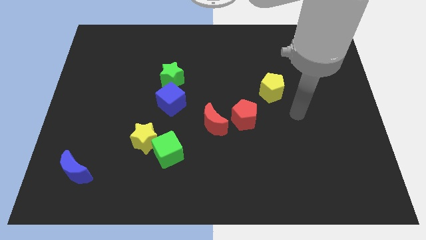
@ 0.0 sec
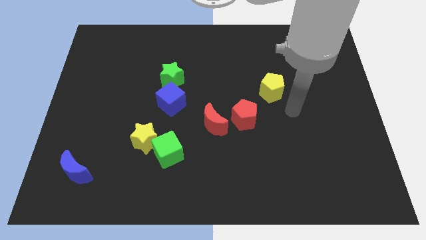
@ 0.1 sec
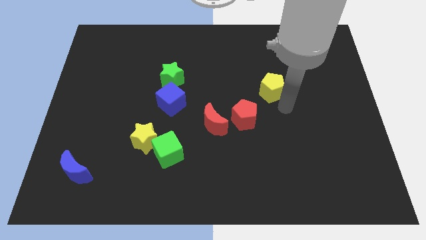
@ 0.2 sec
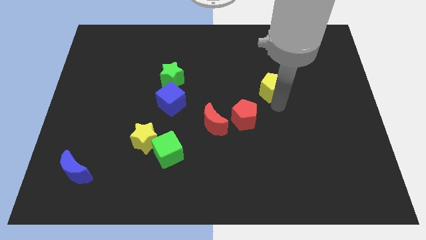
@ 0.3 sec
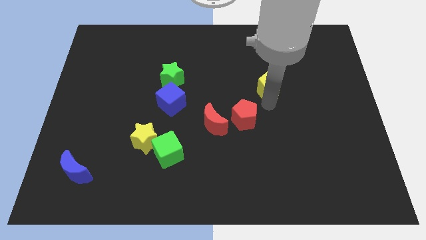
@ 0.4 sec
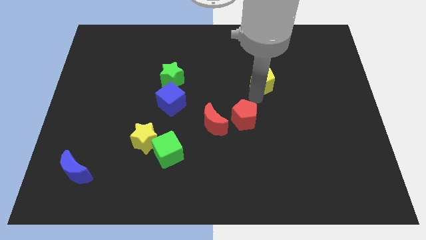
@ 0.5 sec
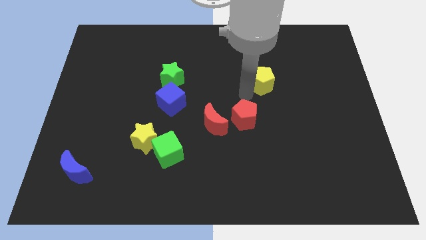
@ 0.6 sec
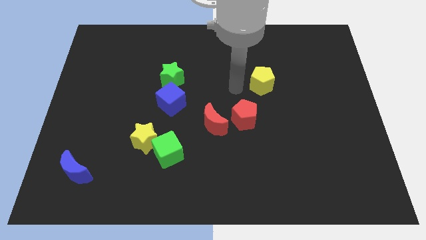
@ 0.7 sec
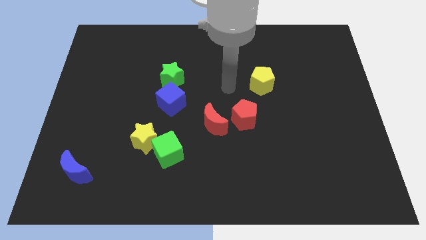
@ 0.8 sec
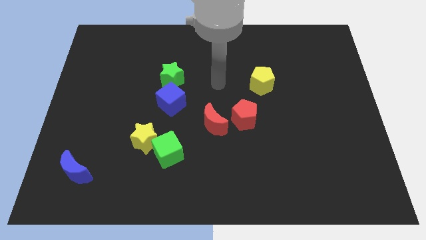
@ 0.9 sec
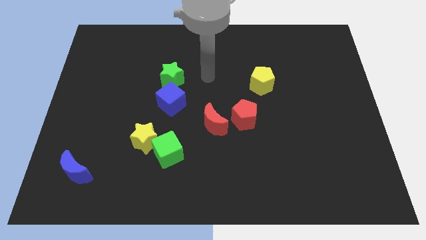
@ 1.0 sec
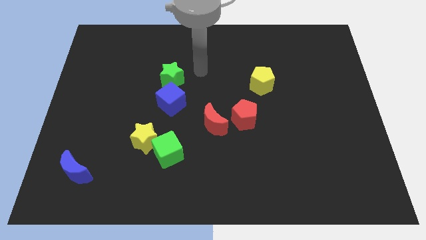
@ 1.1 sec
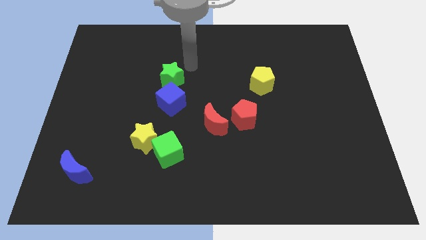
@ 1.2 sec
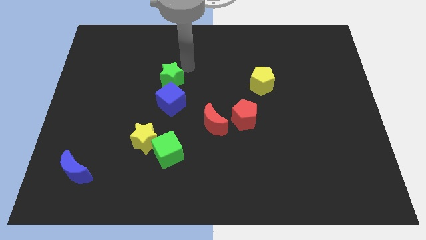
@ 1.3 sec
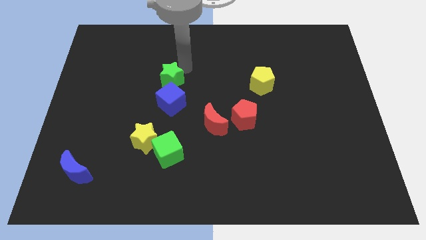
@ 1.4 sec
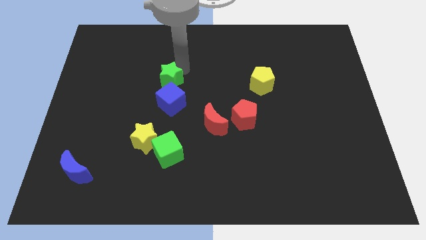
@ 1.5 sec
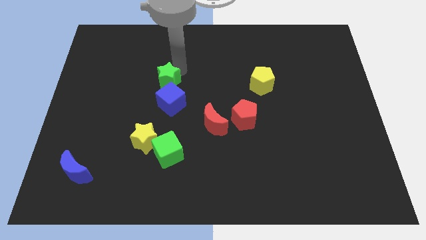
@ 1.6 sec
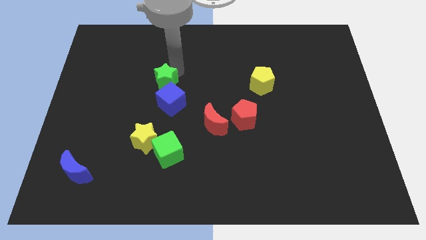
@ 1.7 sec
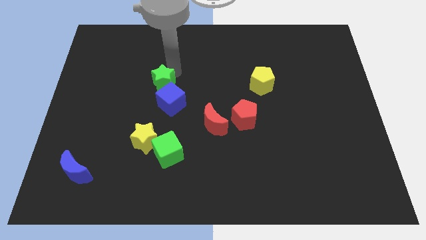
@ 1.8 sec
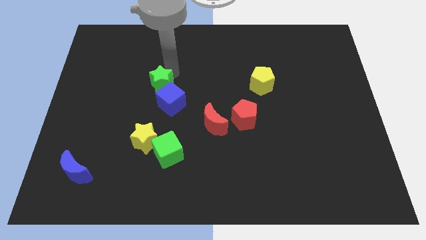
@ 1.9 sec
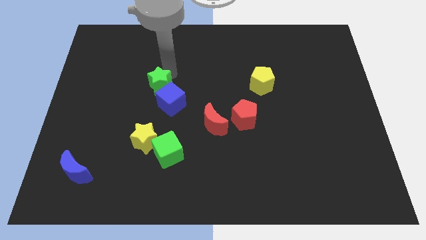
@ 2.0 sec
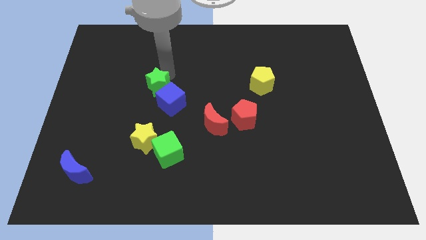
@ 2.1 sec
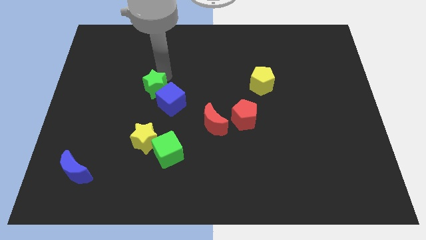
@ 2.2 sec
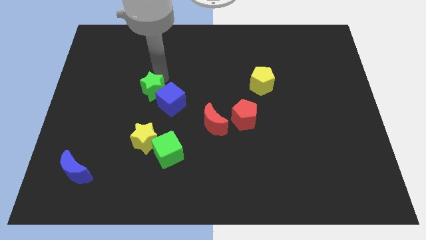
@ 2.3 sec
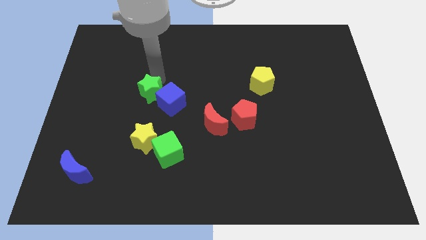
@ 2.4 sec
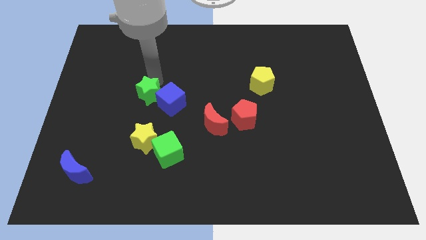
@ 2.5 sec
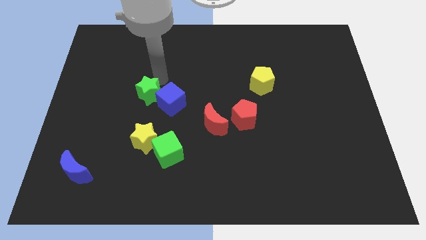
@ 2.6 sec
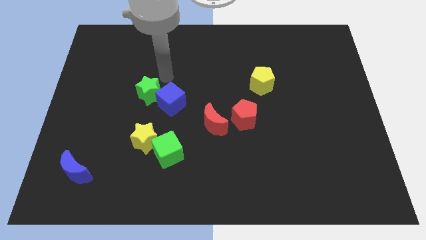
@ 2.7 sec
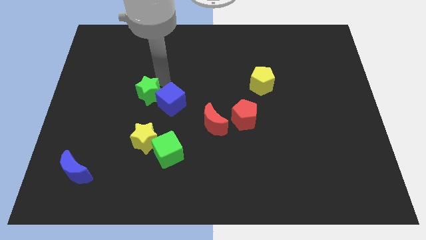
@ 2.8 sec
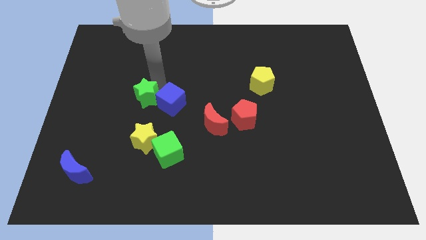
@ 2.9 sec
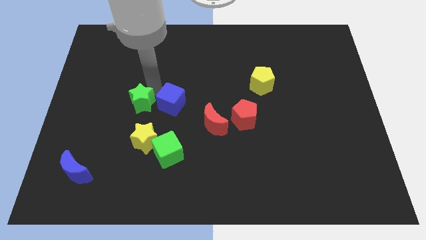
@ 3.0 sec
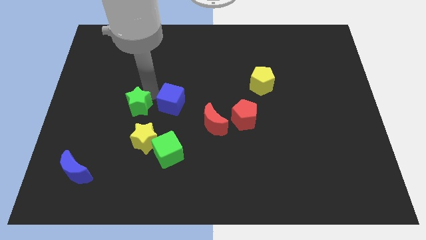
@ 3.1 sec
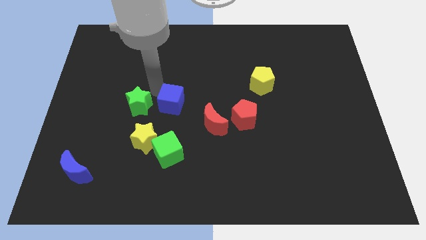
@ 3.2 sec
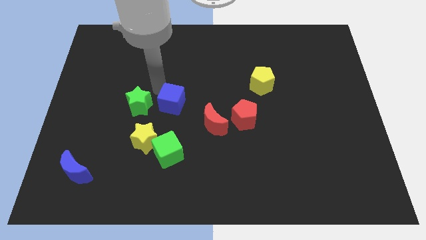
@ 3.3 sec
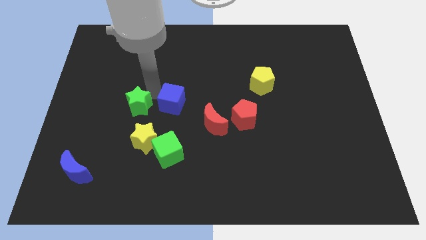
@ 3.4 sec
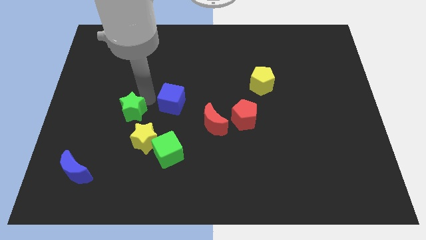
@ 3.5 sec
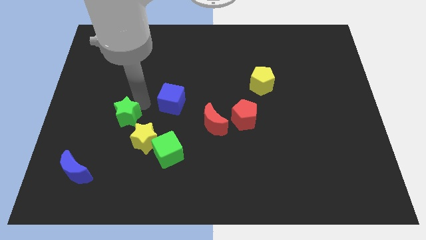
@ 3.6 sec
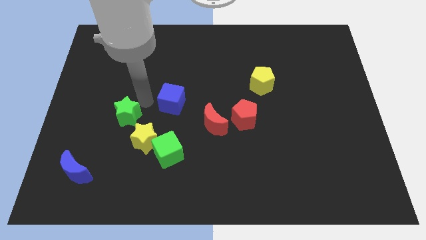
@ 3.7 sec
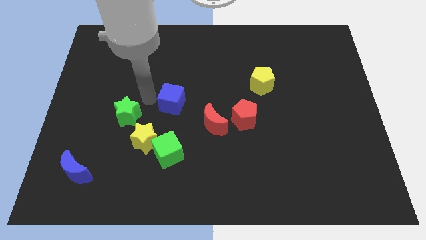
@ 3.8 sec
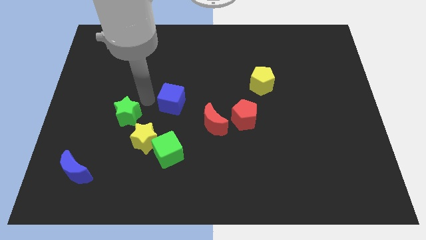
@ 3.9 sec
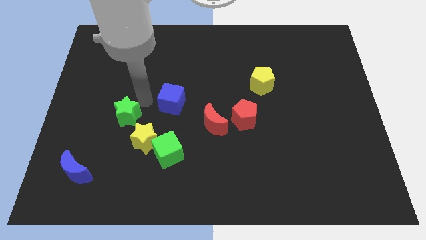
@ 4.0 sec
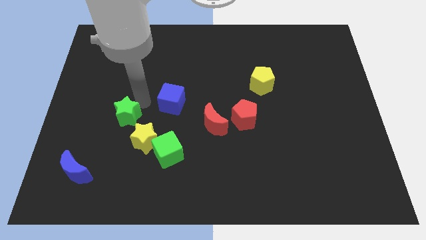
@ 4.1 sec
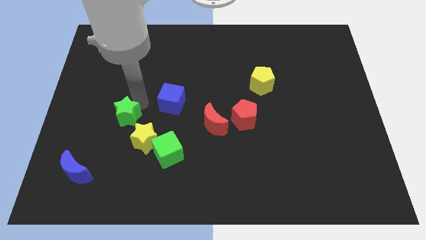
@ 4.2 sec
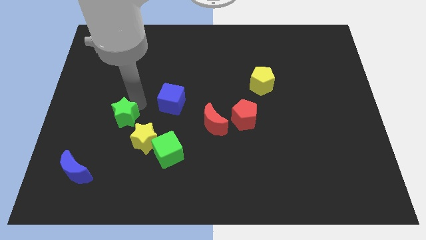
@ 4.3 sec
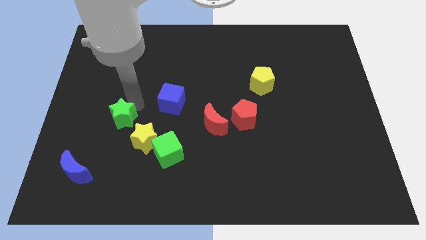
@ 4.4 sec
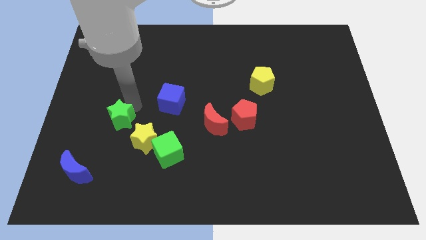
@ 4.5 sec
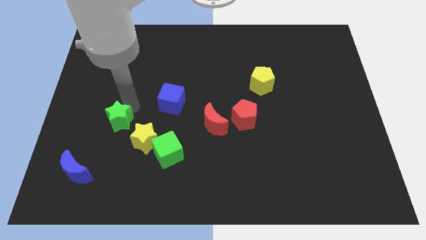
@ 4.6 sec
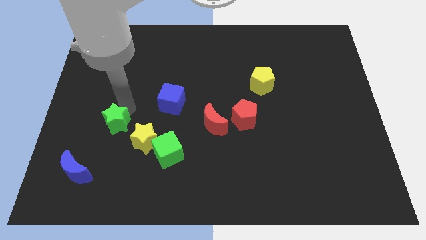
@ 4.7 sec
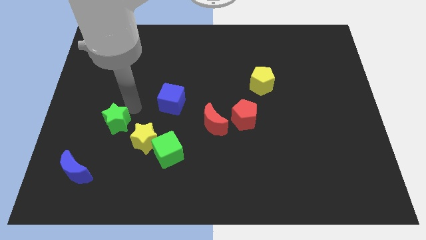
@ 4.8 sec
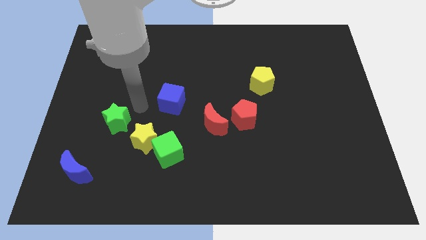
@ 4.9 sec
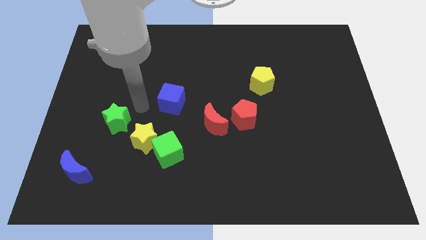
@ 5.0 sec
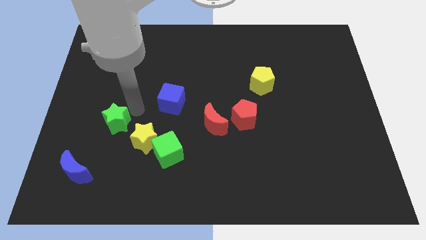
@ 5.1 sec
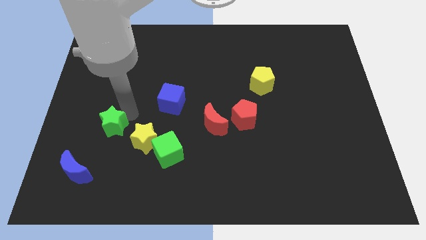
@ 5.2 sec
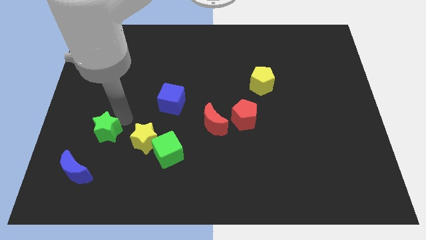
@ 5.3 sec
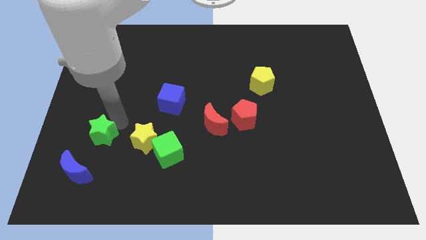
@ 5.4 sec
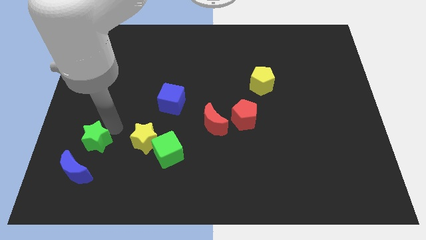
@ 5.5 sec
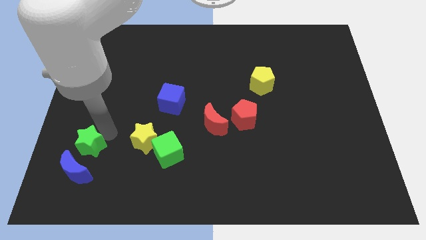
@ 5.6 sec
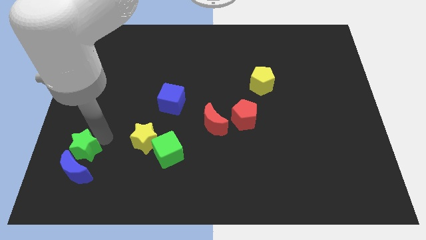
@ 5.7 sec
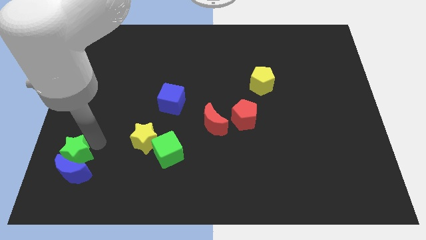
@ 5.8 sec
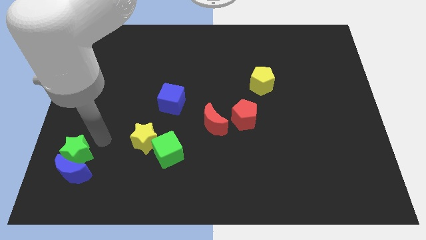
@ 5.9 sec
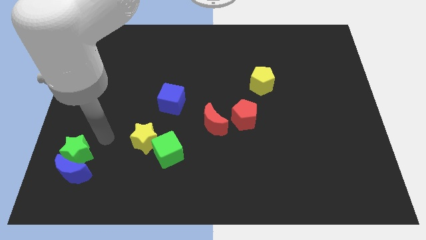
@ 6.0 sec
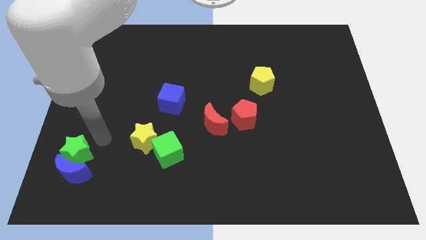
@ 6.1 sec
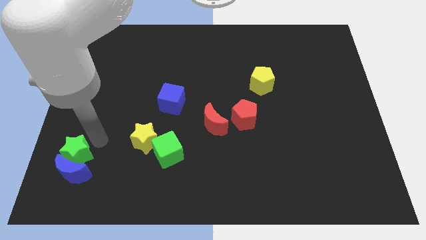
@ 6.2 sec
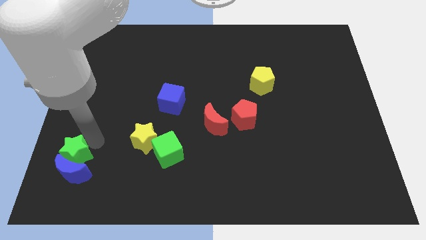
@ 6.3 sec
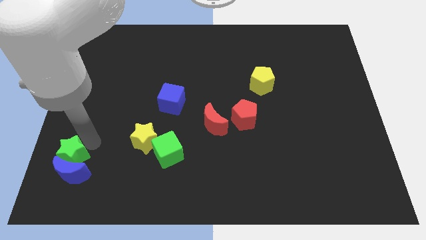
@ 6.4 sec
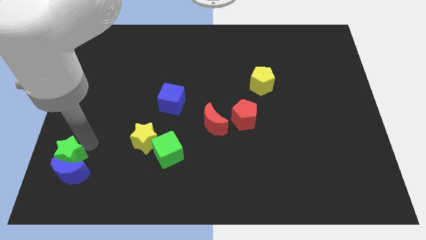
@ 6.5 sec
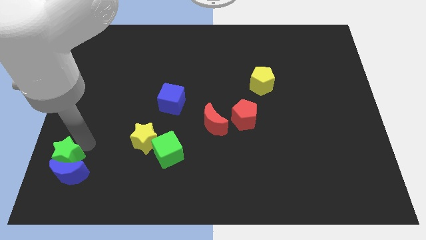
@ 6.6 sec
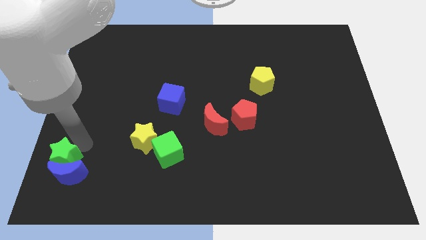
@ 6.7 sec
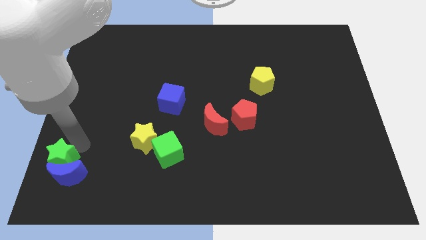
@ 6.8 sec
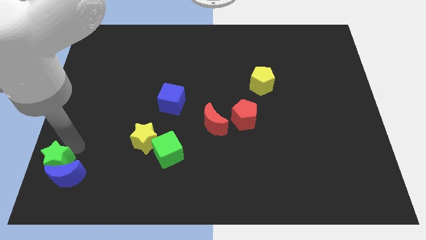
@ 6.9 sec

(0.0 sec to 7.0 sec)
push the green star to the bottom left
